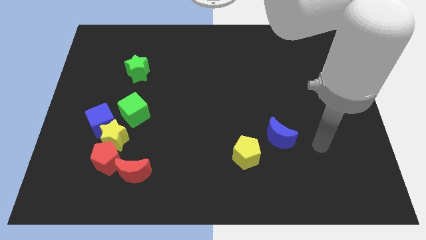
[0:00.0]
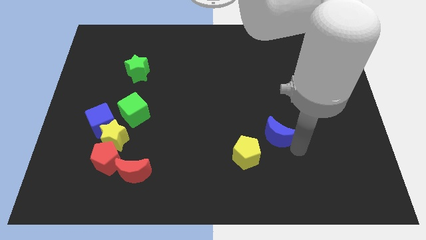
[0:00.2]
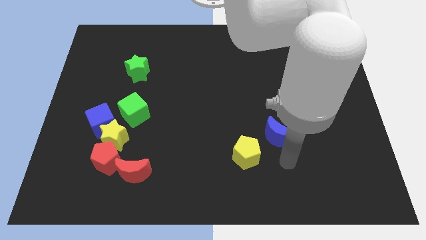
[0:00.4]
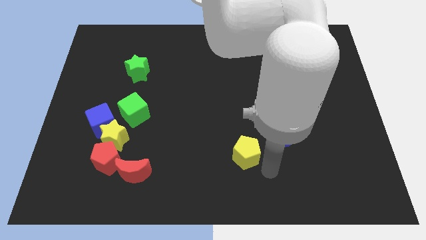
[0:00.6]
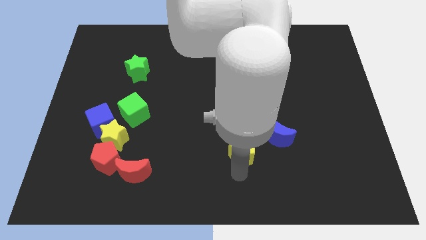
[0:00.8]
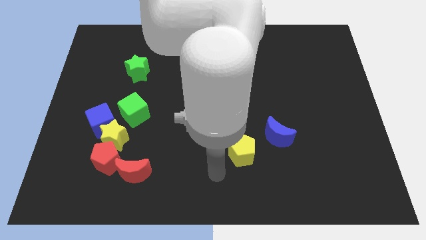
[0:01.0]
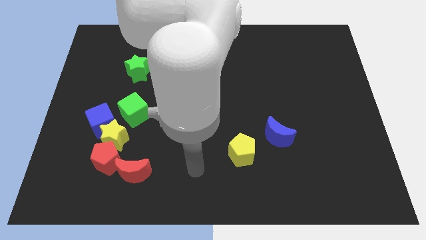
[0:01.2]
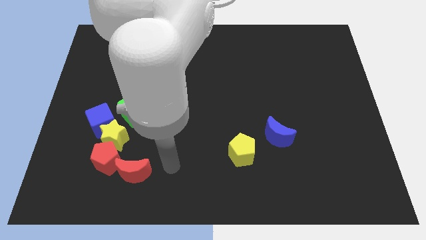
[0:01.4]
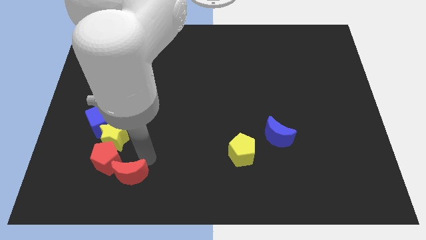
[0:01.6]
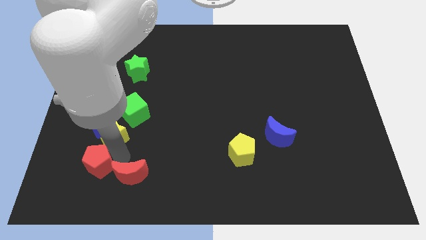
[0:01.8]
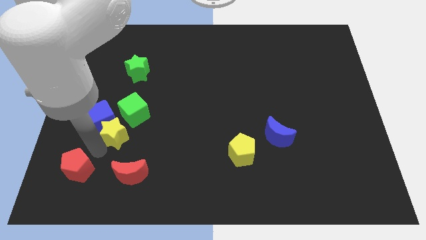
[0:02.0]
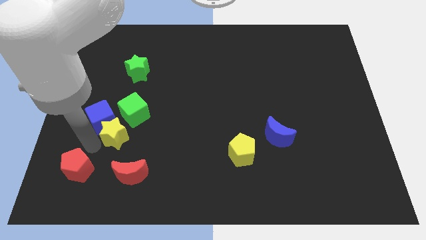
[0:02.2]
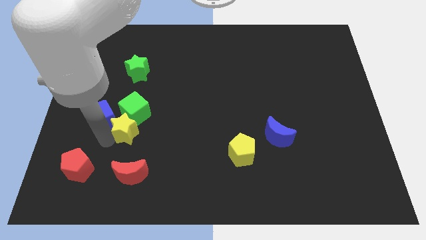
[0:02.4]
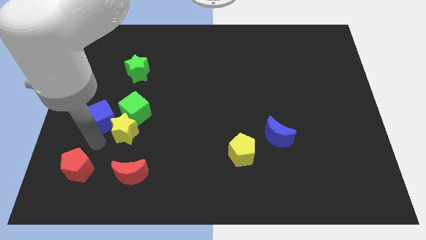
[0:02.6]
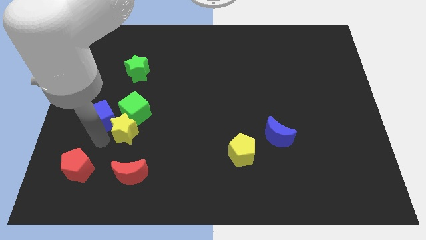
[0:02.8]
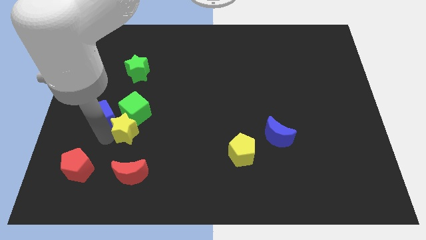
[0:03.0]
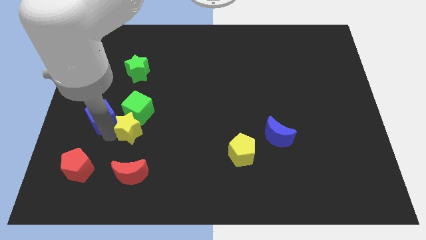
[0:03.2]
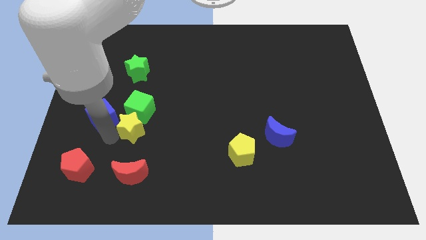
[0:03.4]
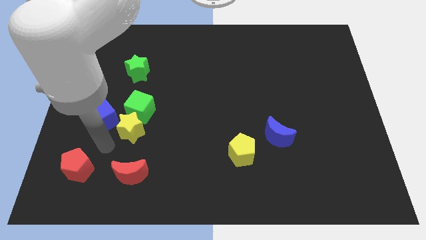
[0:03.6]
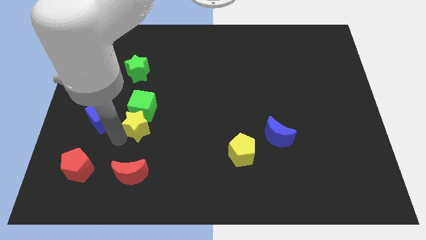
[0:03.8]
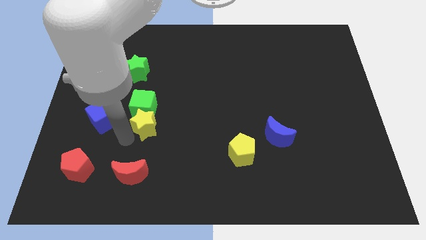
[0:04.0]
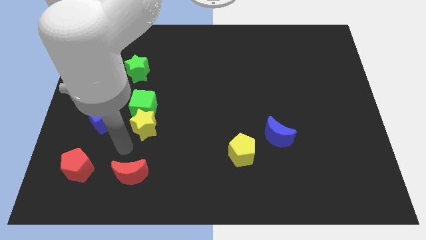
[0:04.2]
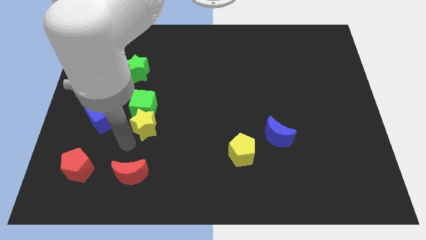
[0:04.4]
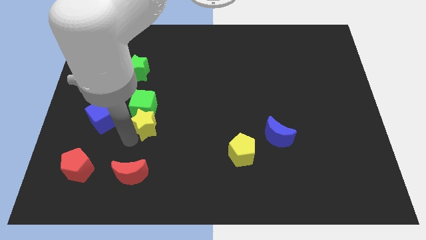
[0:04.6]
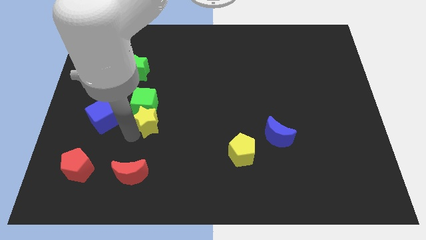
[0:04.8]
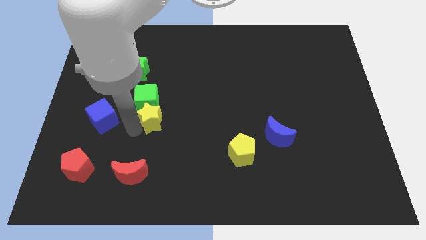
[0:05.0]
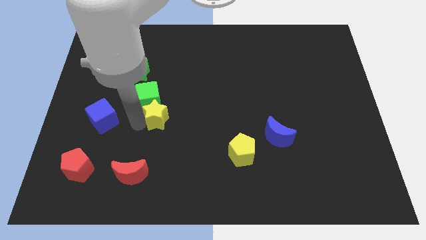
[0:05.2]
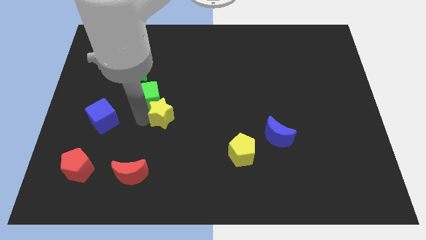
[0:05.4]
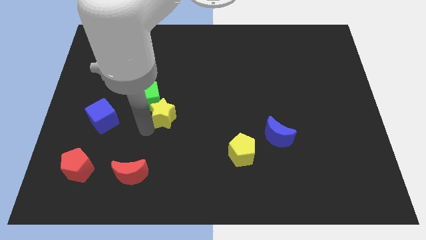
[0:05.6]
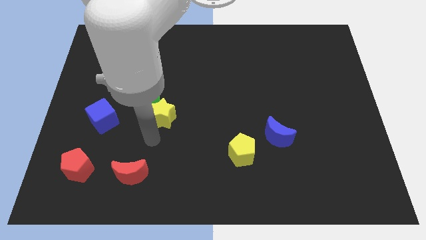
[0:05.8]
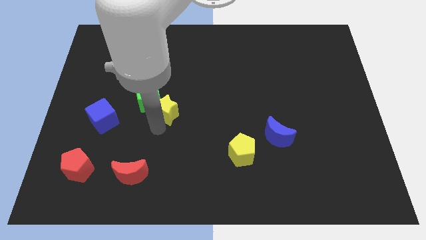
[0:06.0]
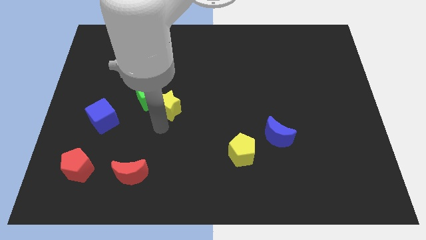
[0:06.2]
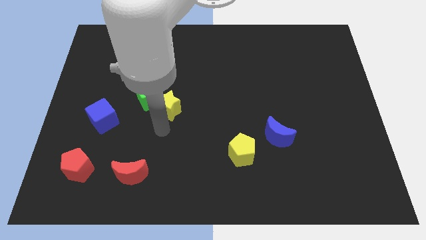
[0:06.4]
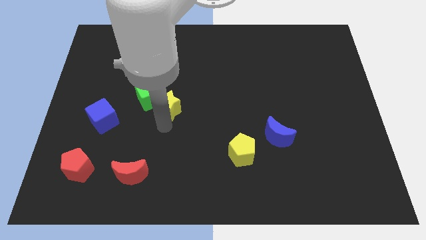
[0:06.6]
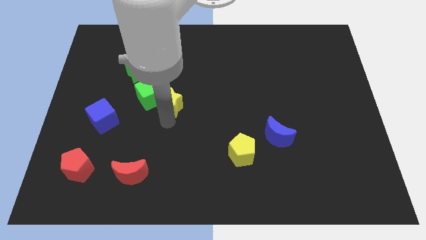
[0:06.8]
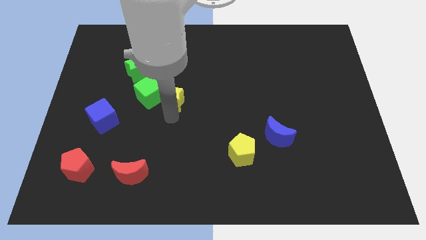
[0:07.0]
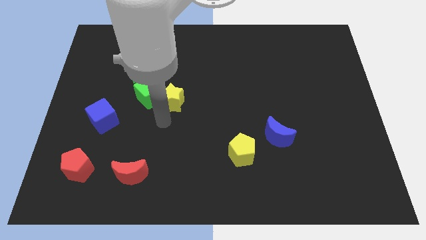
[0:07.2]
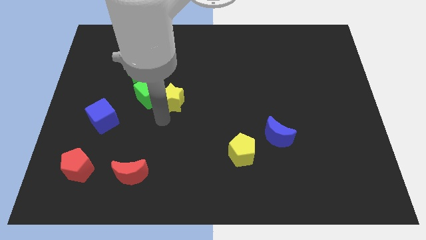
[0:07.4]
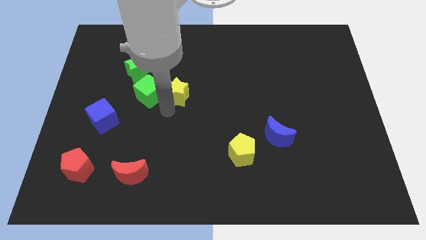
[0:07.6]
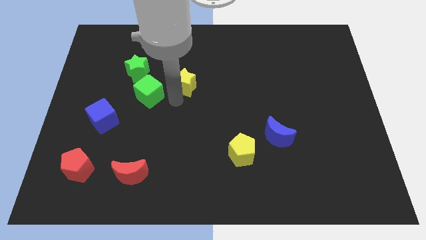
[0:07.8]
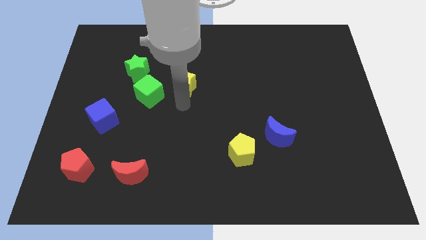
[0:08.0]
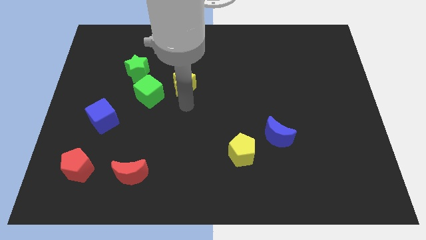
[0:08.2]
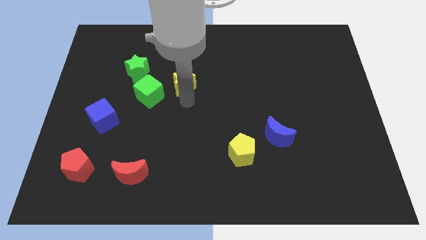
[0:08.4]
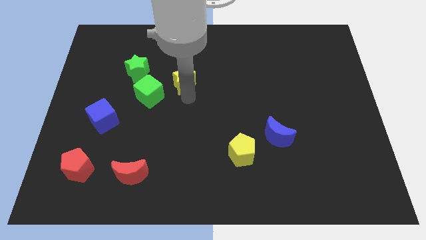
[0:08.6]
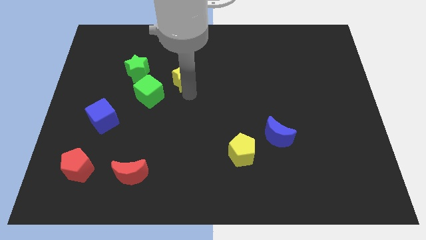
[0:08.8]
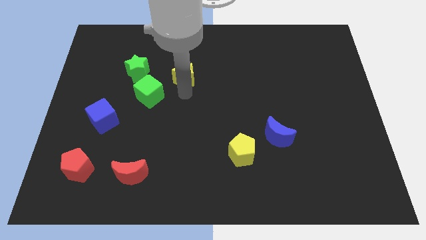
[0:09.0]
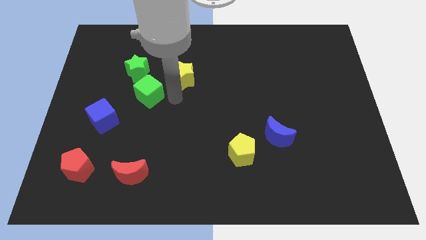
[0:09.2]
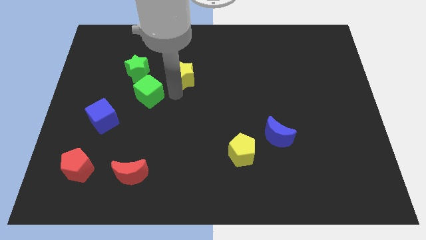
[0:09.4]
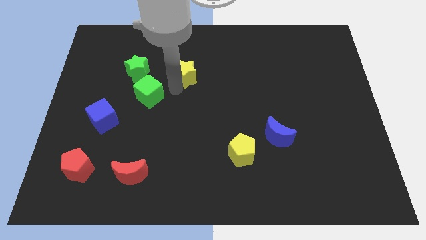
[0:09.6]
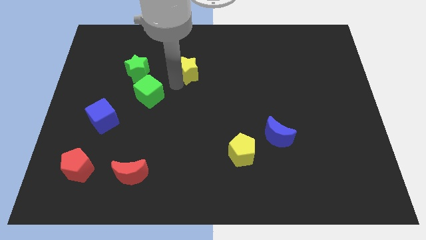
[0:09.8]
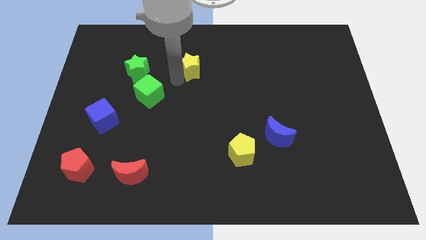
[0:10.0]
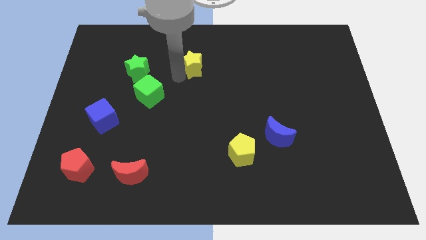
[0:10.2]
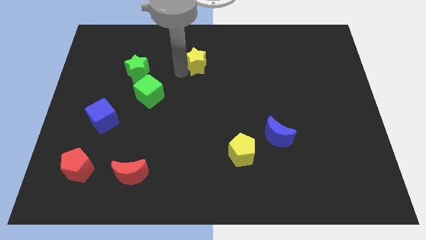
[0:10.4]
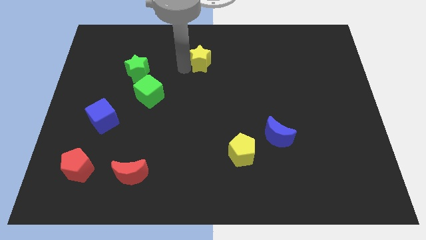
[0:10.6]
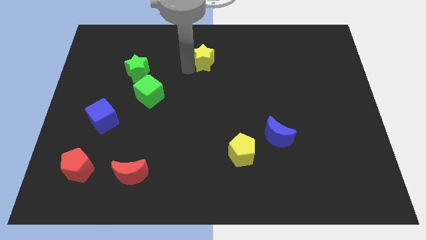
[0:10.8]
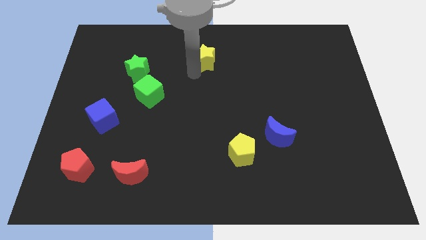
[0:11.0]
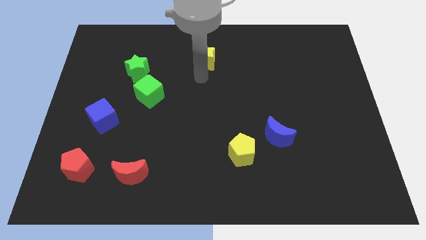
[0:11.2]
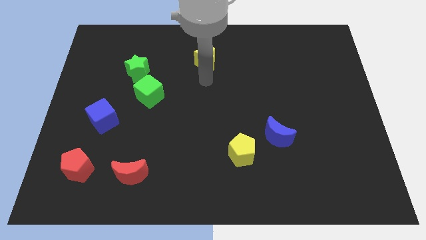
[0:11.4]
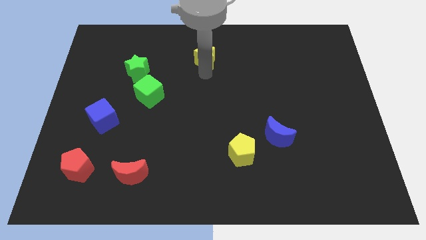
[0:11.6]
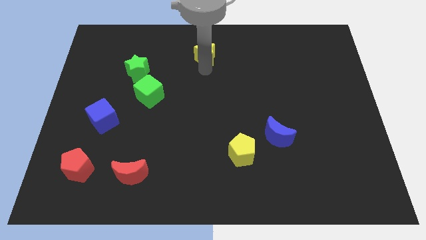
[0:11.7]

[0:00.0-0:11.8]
move the yellow star to the top side

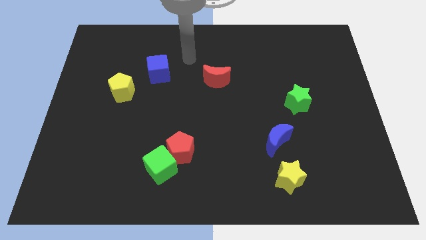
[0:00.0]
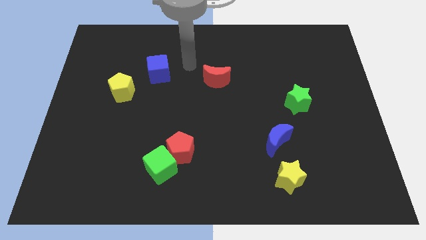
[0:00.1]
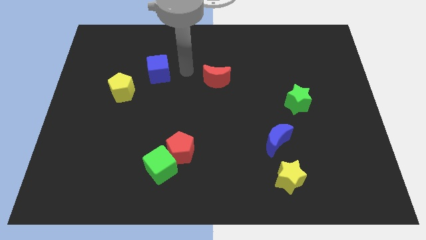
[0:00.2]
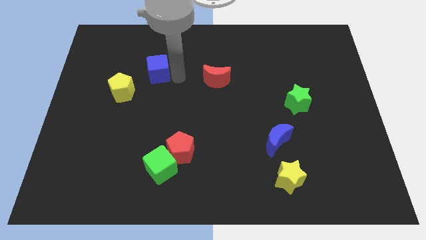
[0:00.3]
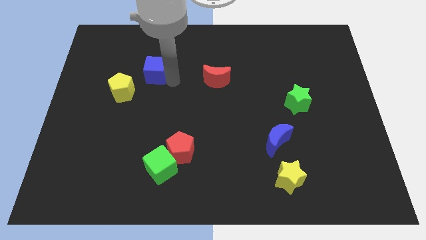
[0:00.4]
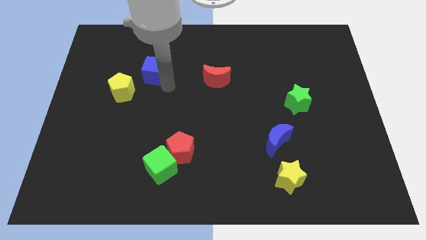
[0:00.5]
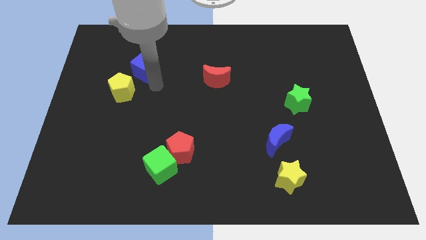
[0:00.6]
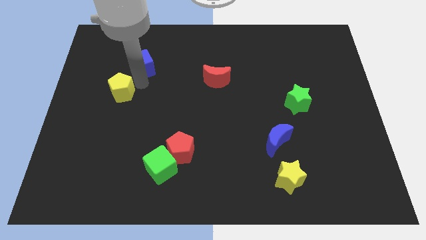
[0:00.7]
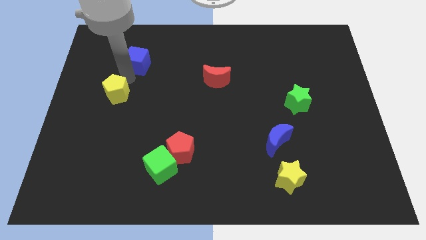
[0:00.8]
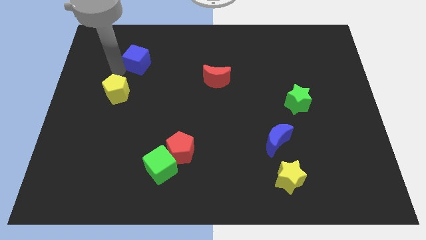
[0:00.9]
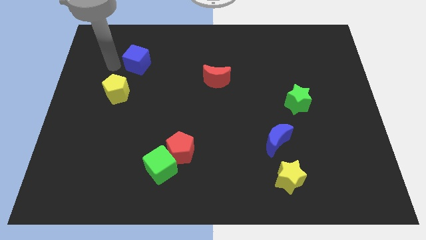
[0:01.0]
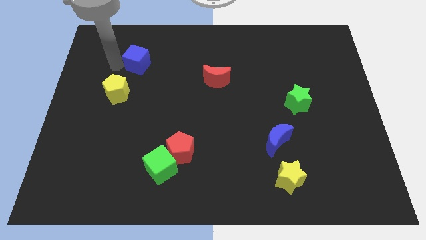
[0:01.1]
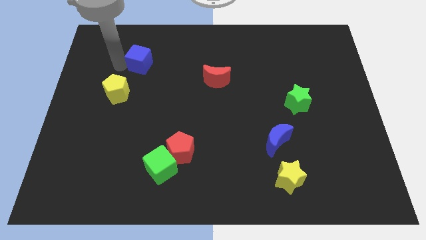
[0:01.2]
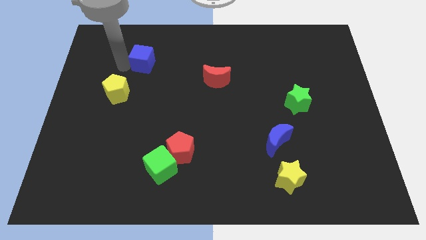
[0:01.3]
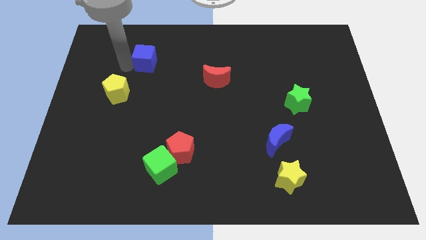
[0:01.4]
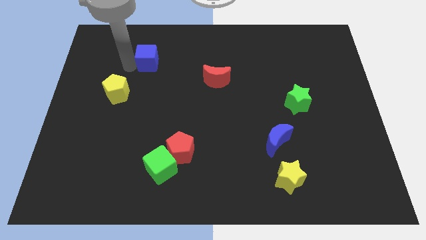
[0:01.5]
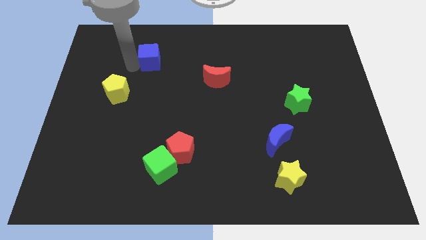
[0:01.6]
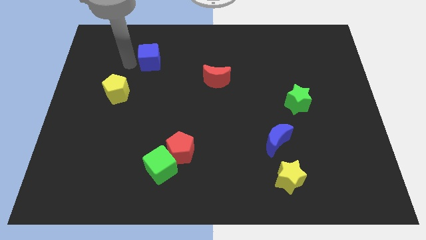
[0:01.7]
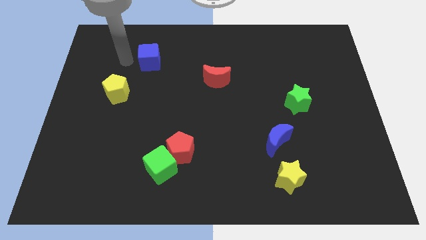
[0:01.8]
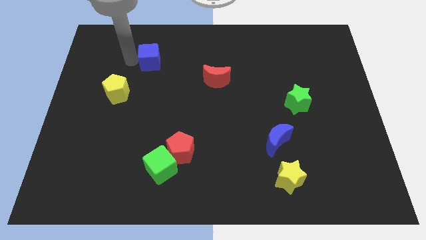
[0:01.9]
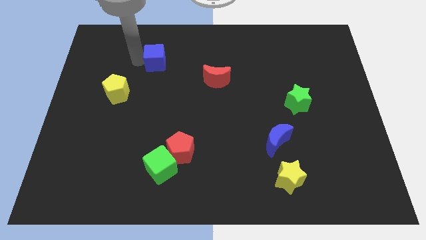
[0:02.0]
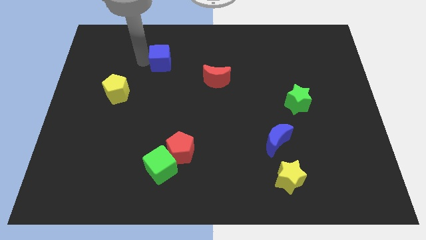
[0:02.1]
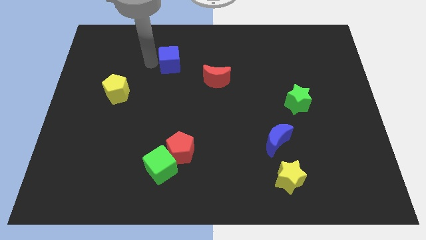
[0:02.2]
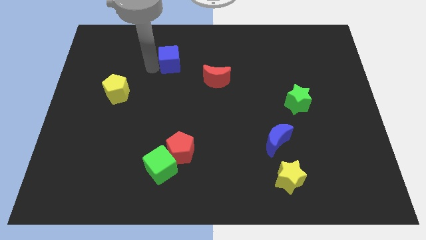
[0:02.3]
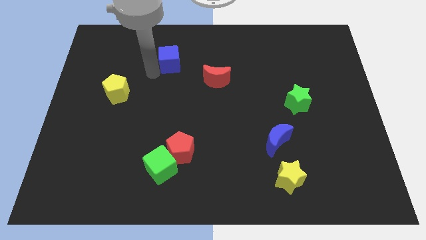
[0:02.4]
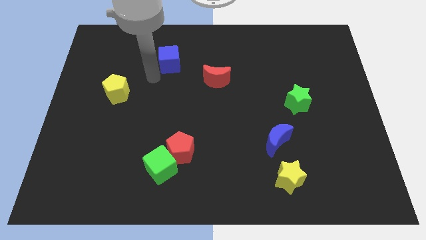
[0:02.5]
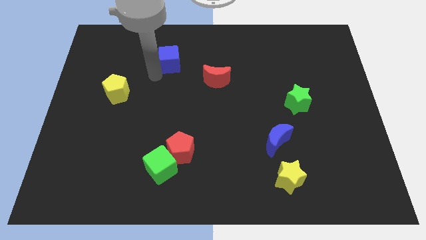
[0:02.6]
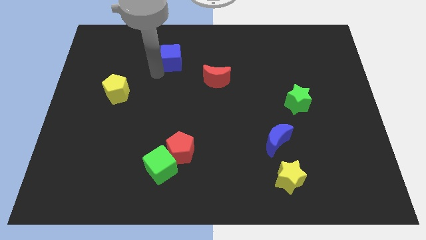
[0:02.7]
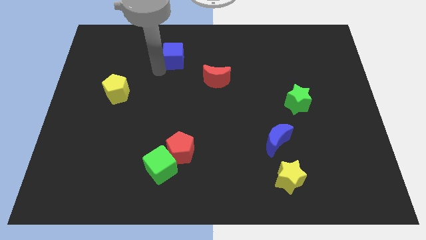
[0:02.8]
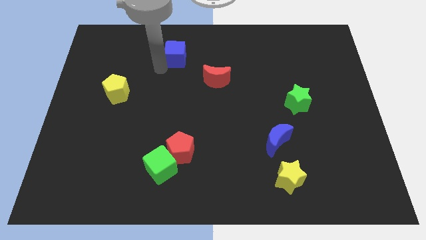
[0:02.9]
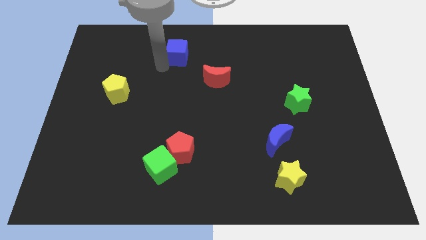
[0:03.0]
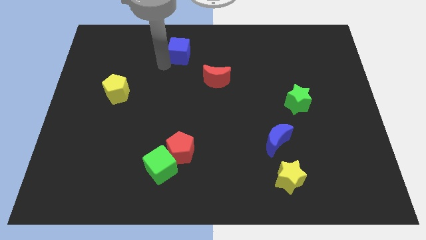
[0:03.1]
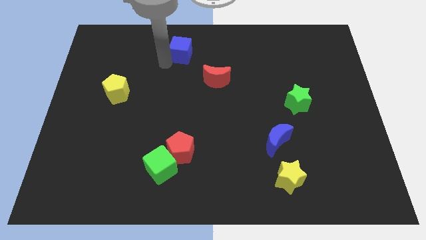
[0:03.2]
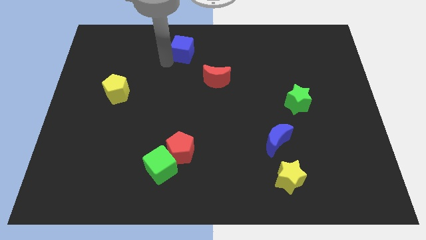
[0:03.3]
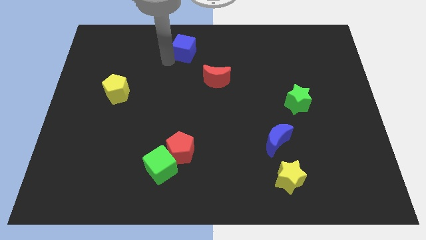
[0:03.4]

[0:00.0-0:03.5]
move the blue cube to the top side
